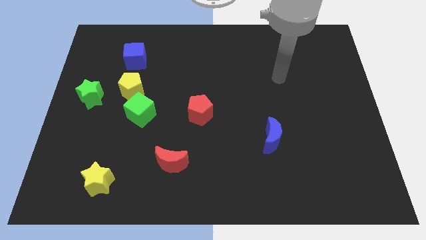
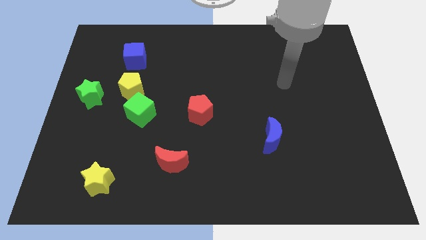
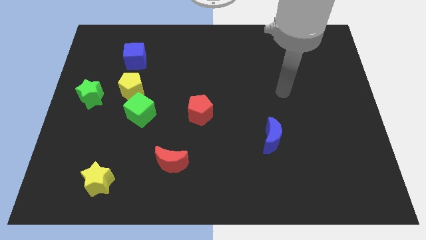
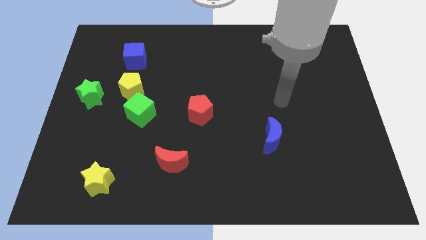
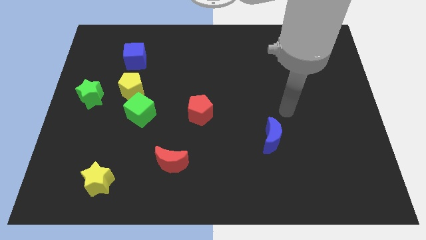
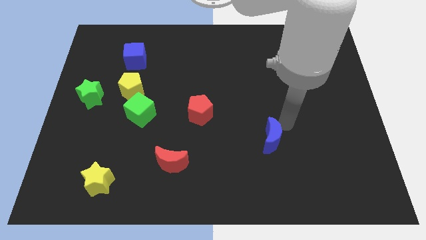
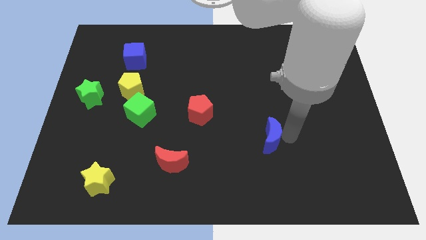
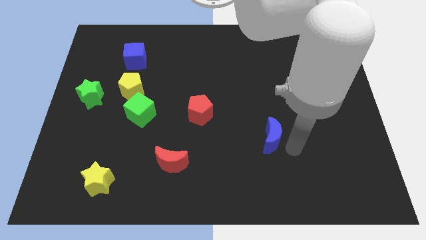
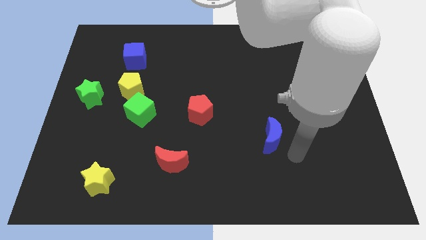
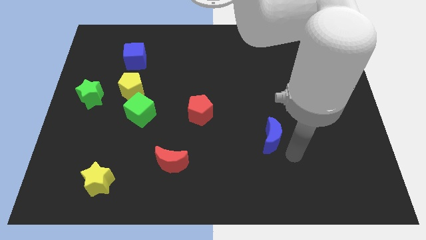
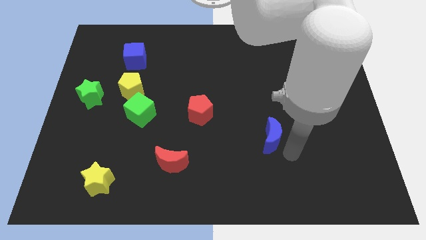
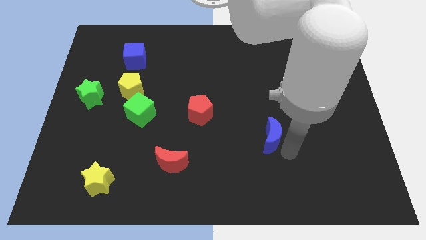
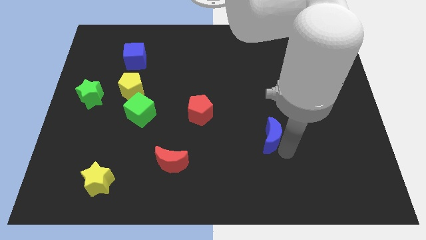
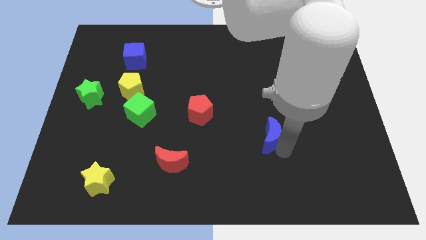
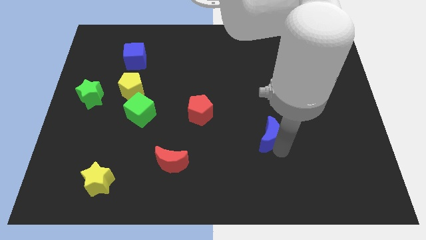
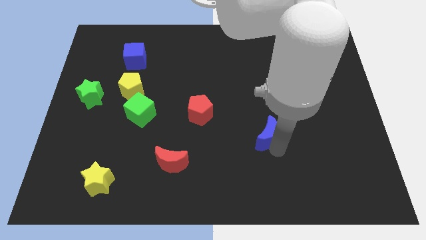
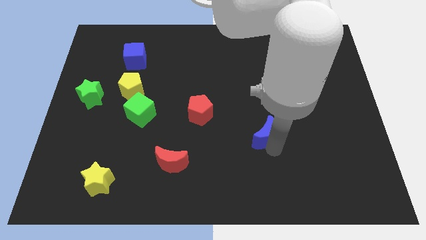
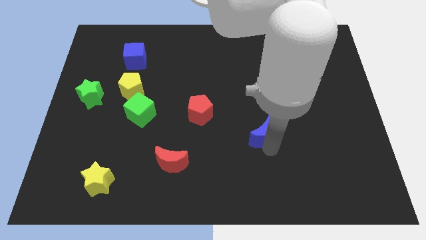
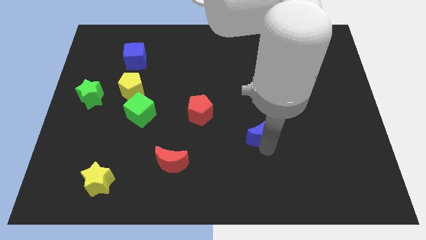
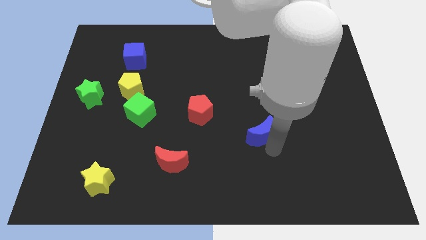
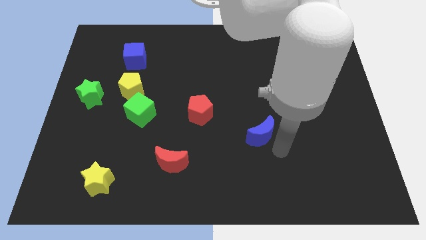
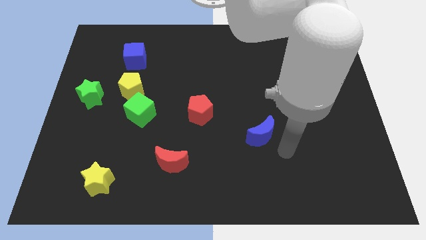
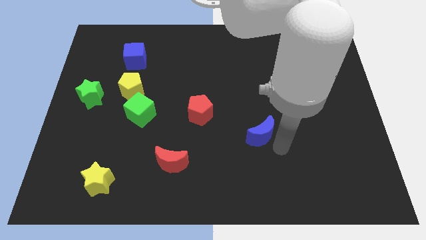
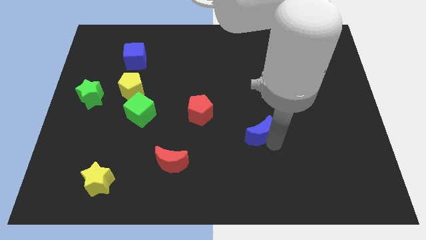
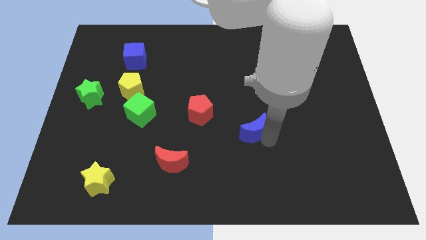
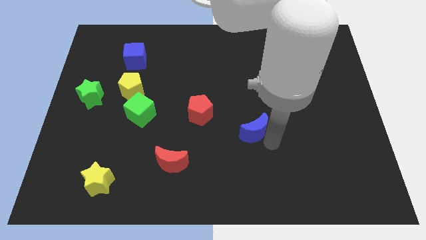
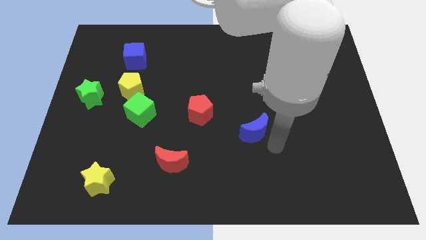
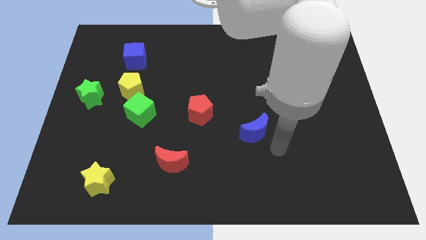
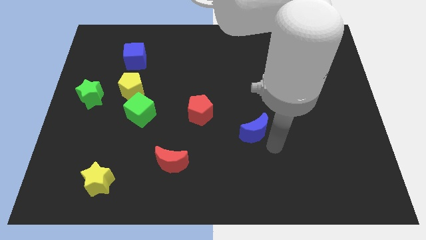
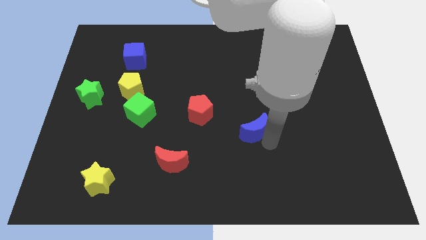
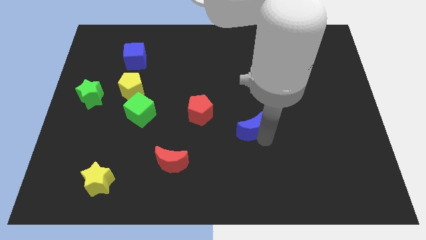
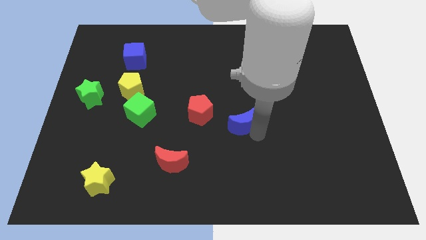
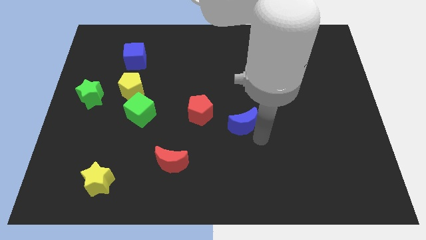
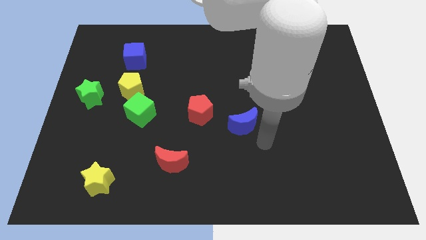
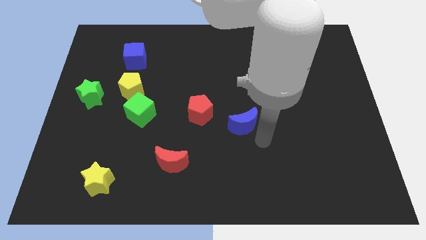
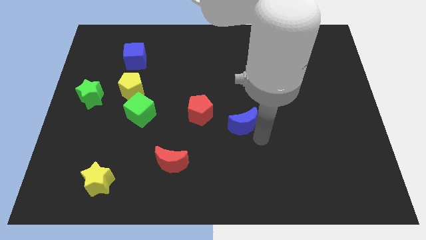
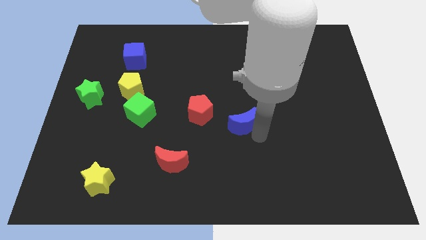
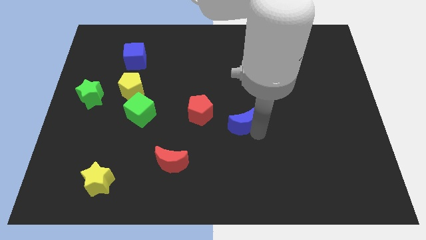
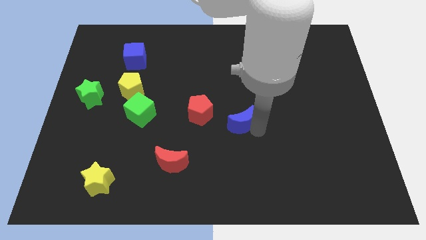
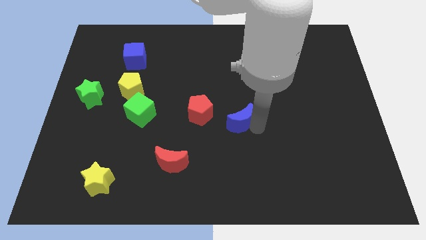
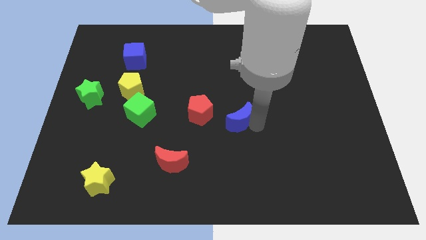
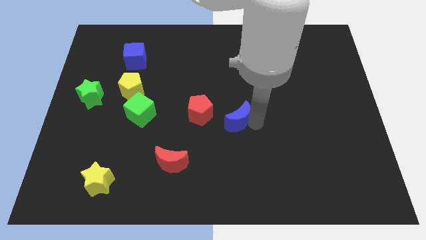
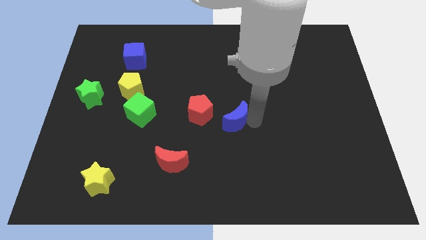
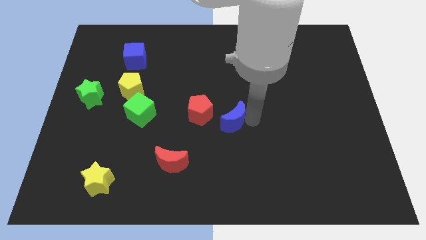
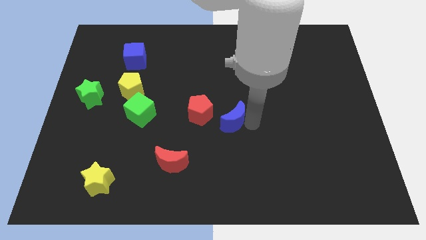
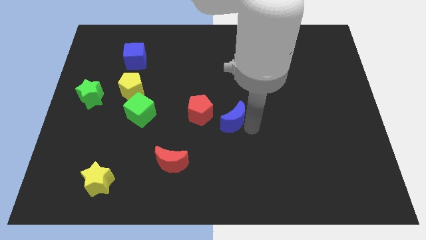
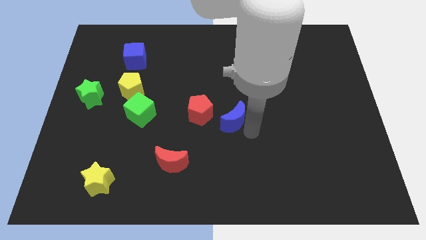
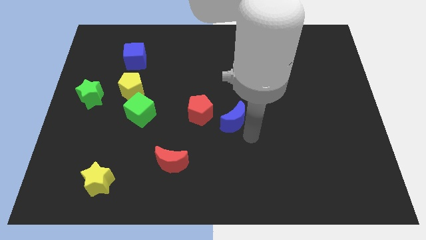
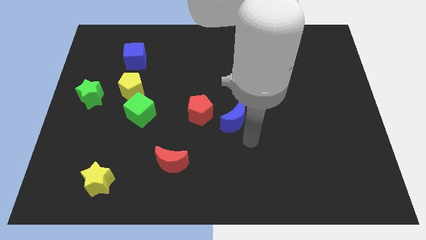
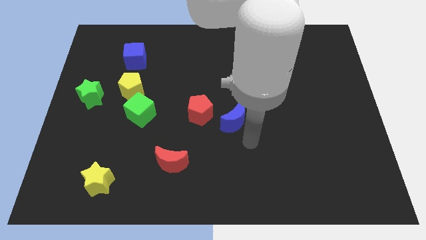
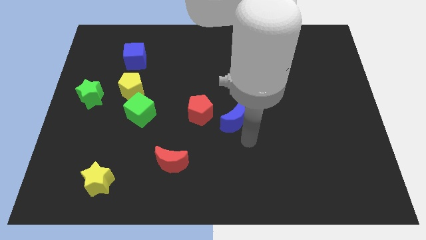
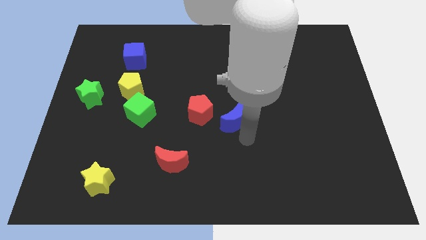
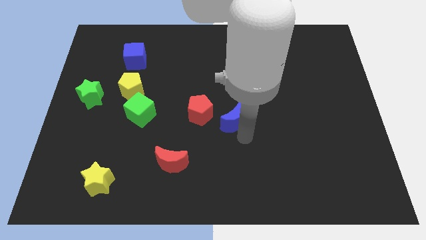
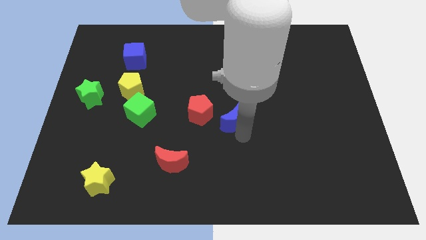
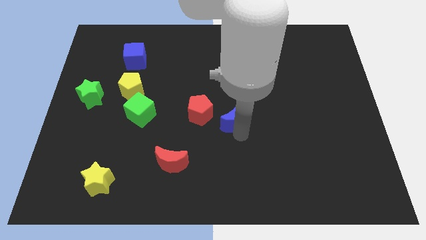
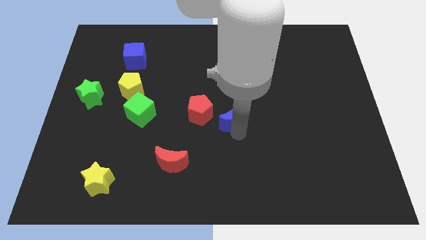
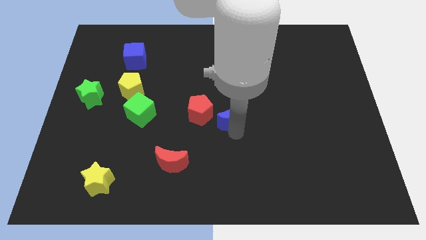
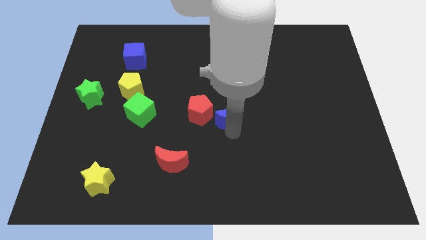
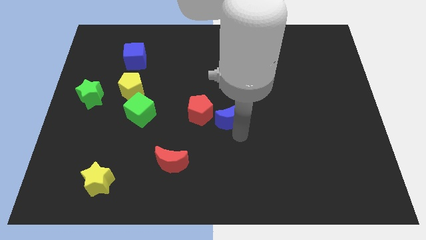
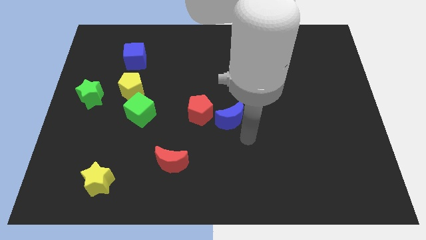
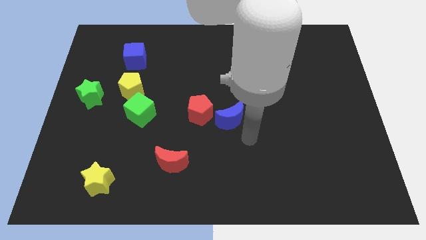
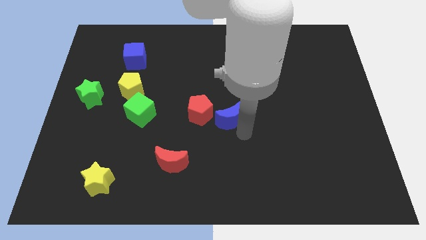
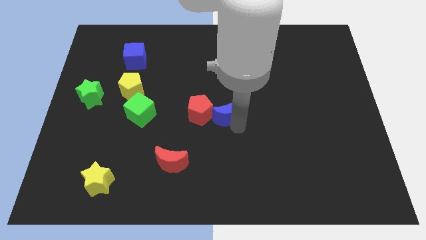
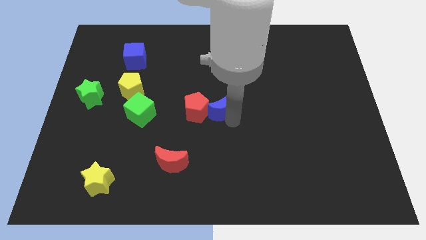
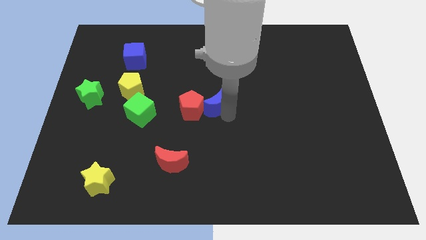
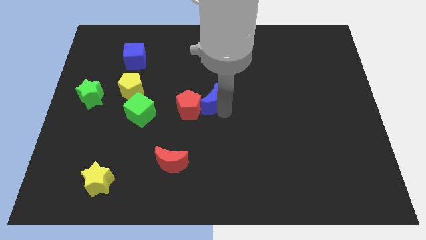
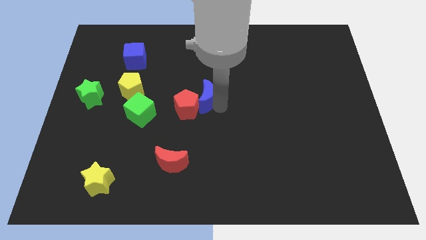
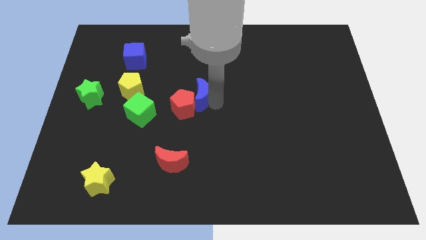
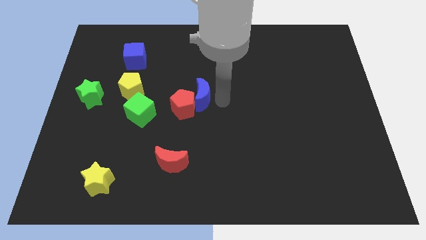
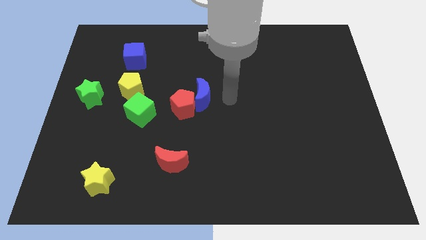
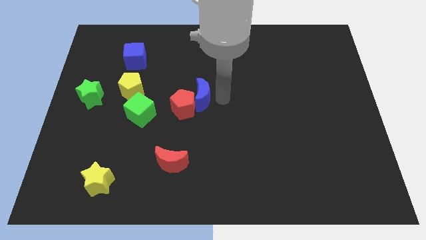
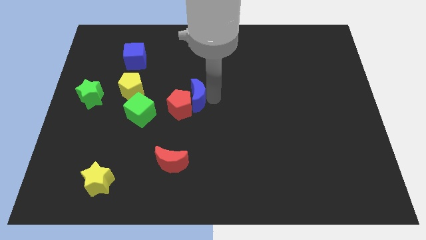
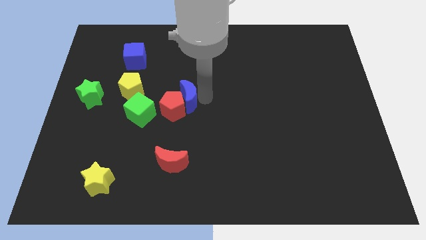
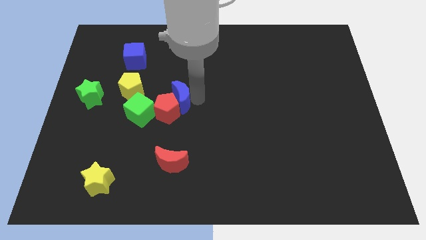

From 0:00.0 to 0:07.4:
move the blue moon diagonally up and to the right of the green cube
